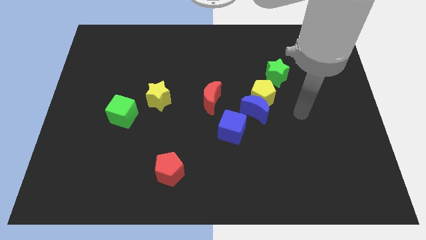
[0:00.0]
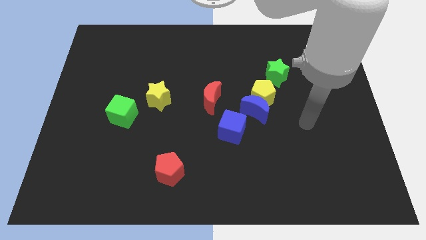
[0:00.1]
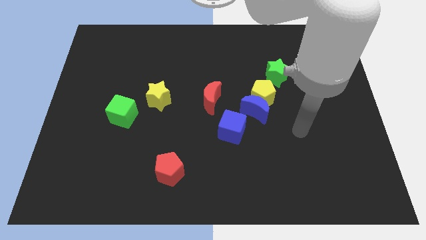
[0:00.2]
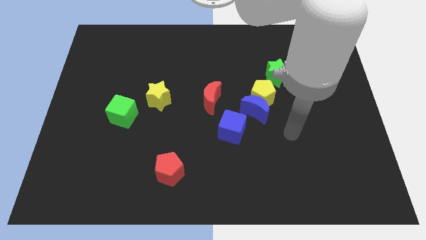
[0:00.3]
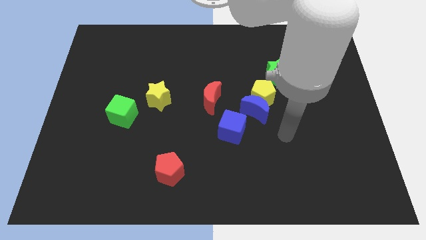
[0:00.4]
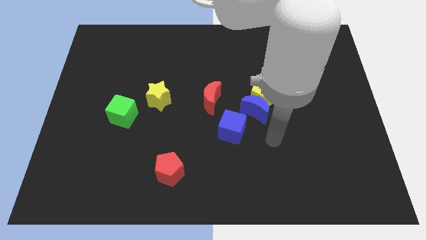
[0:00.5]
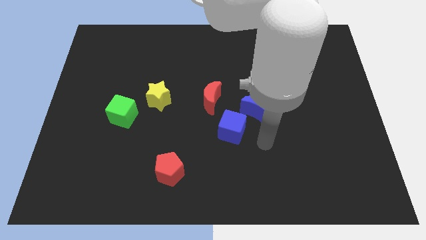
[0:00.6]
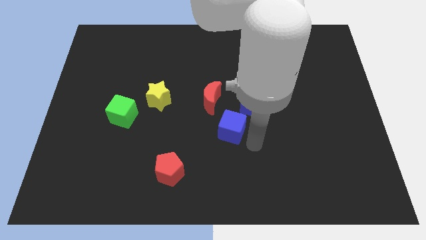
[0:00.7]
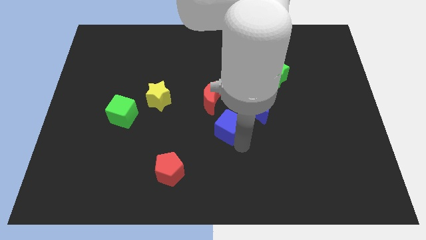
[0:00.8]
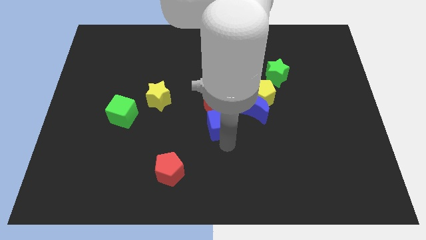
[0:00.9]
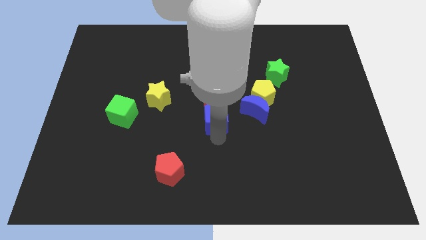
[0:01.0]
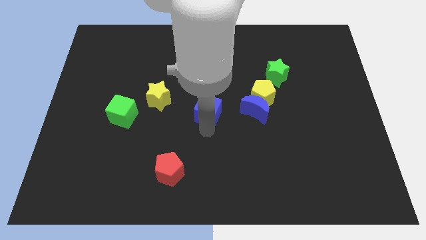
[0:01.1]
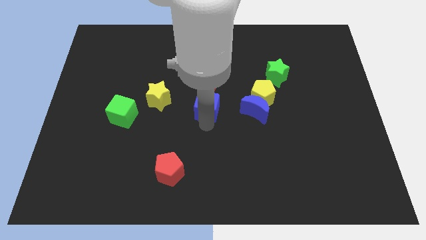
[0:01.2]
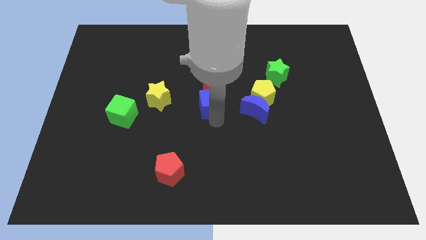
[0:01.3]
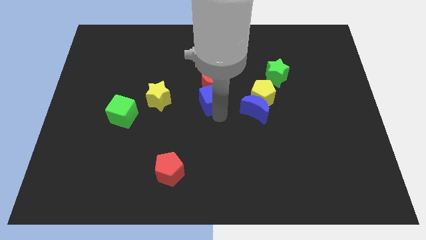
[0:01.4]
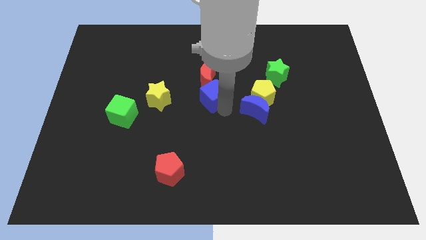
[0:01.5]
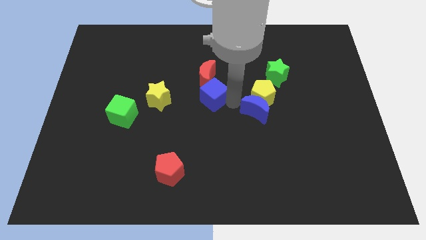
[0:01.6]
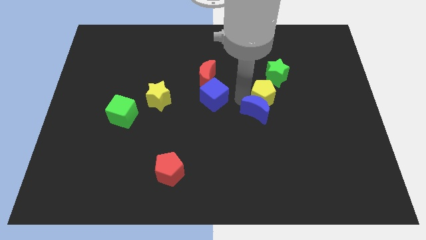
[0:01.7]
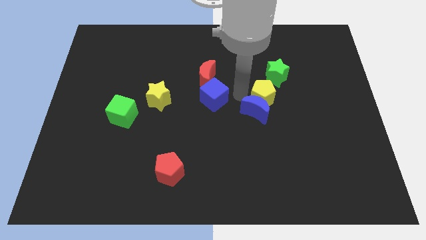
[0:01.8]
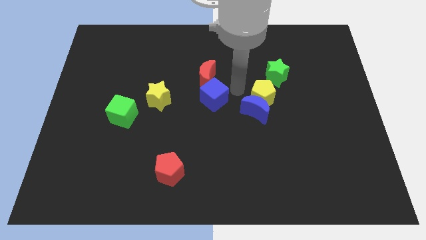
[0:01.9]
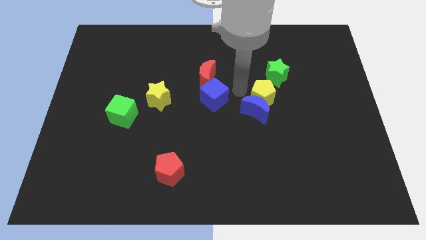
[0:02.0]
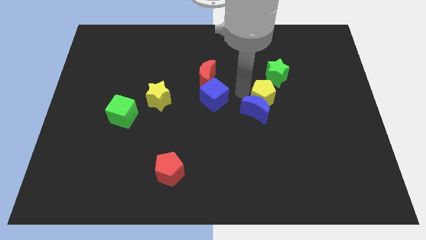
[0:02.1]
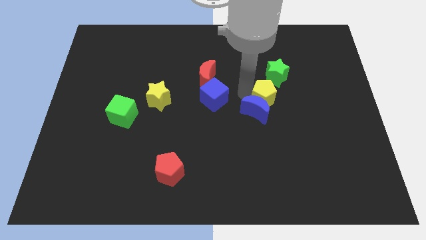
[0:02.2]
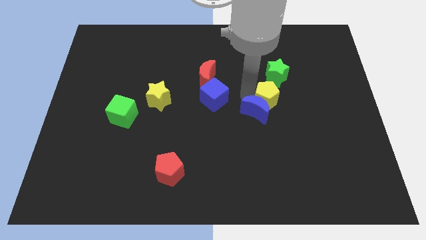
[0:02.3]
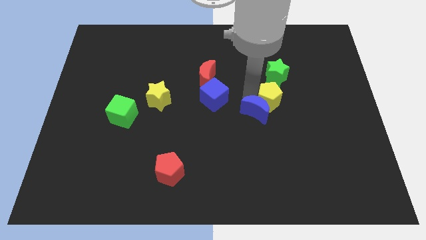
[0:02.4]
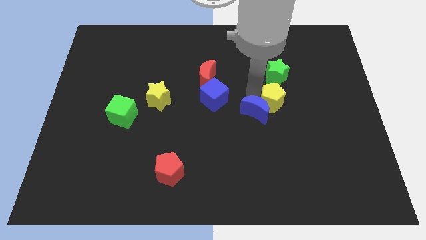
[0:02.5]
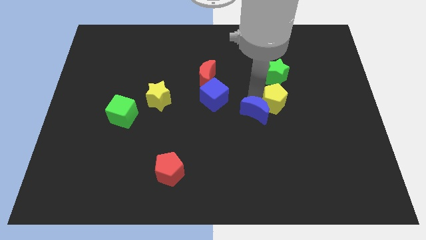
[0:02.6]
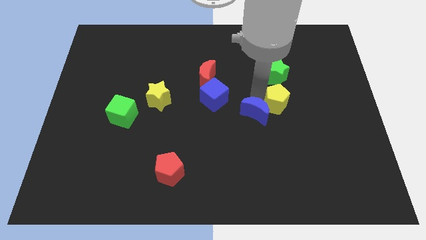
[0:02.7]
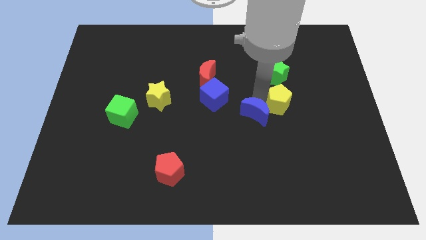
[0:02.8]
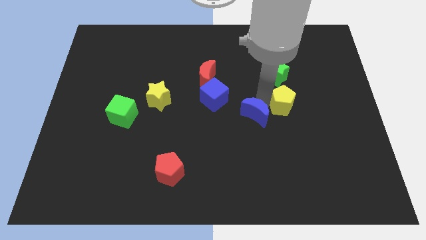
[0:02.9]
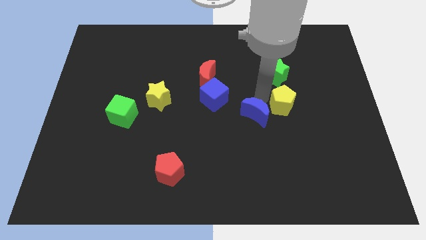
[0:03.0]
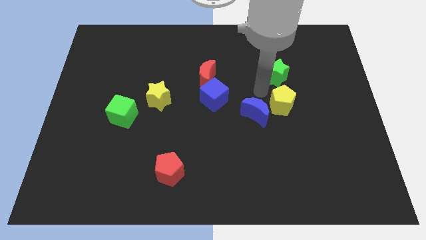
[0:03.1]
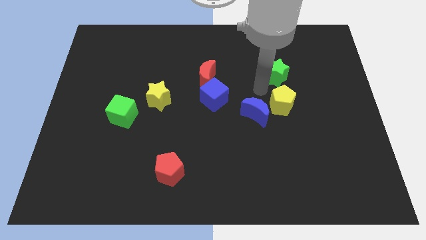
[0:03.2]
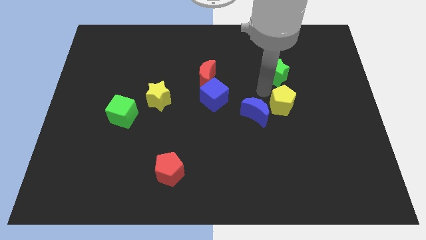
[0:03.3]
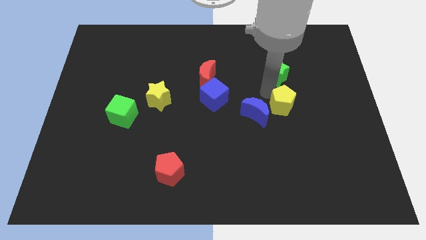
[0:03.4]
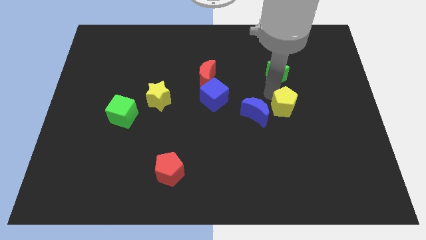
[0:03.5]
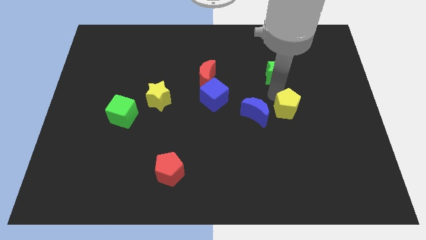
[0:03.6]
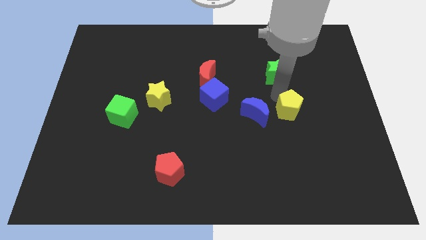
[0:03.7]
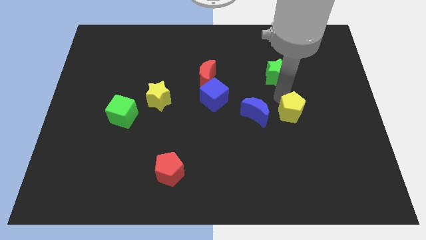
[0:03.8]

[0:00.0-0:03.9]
slightly push the yellow pentagon downwards and right diagonally

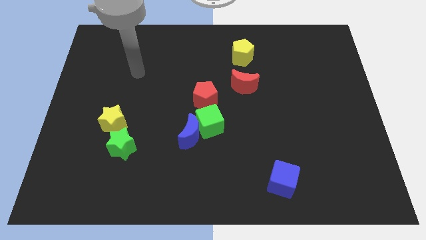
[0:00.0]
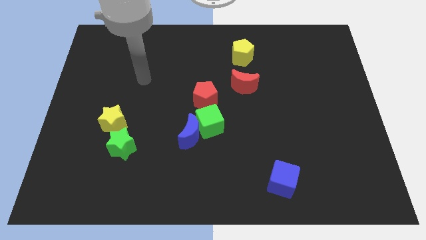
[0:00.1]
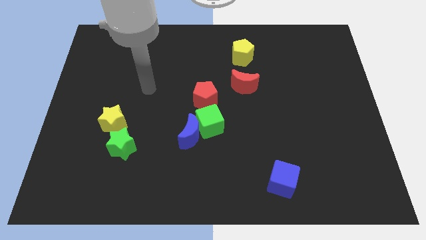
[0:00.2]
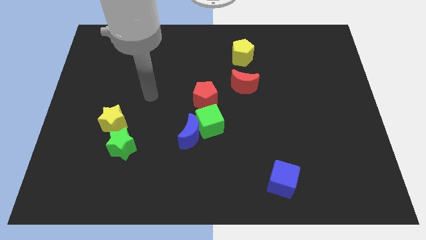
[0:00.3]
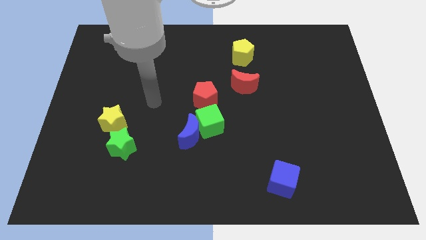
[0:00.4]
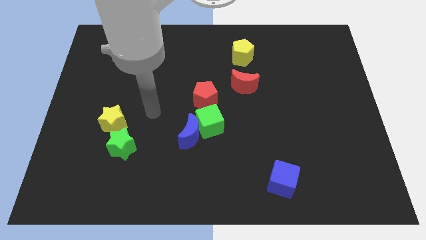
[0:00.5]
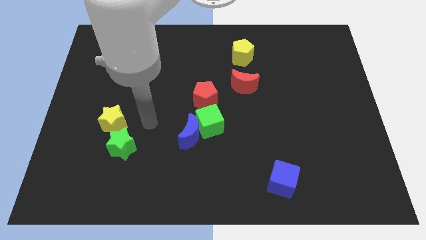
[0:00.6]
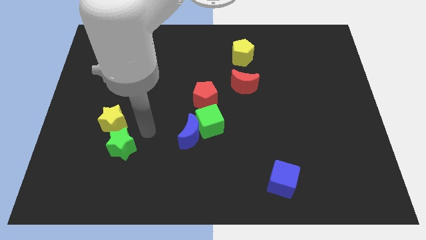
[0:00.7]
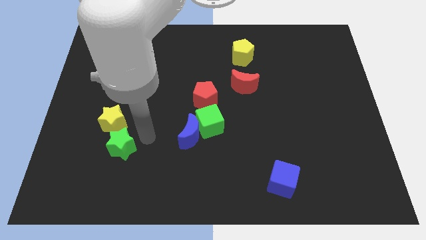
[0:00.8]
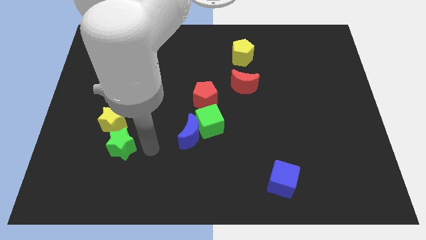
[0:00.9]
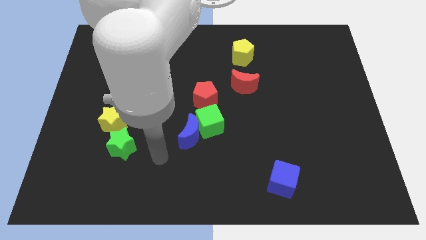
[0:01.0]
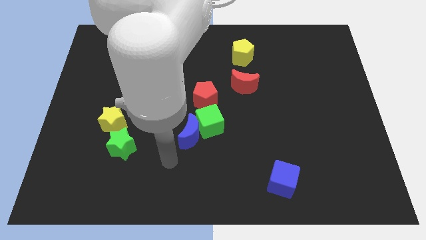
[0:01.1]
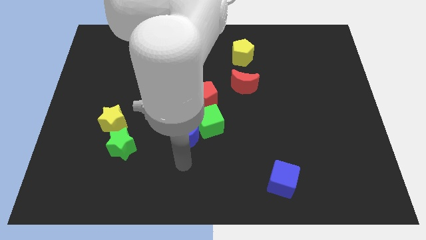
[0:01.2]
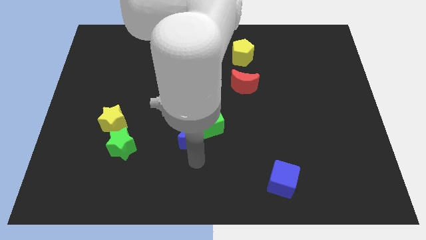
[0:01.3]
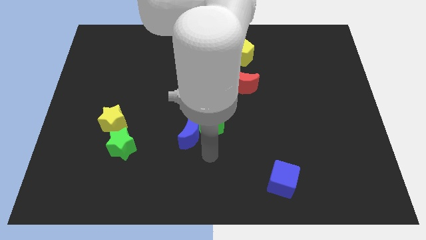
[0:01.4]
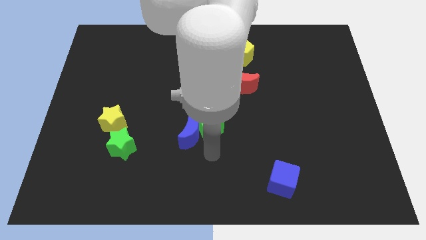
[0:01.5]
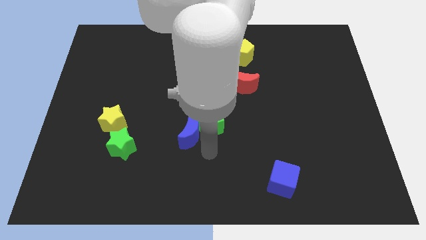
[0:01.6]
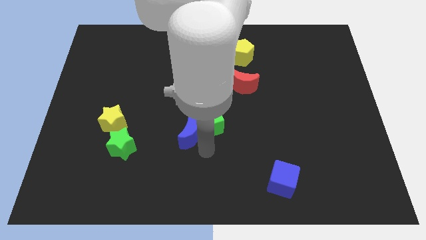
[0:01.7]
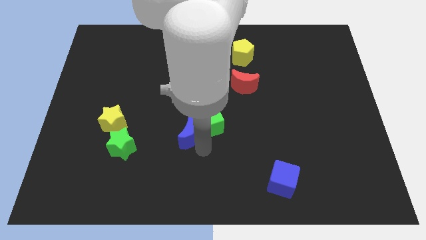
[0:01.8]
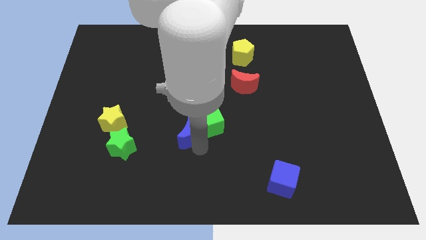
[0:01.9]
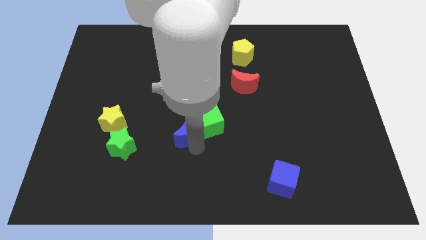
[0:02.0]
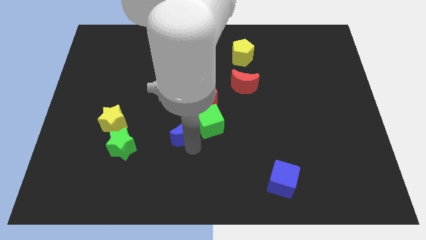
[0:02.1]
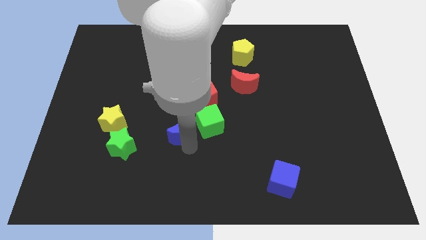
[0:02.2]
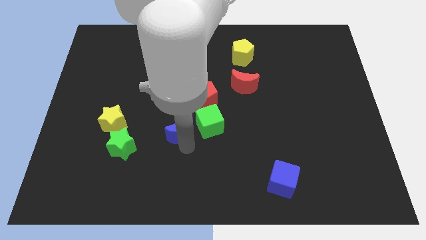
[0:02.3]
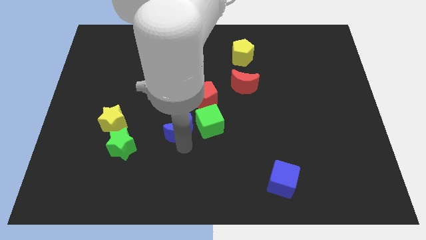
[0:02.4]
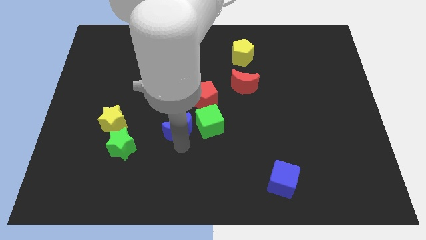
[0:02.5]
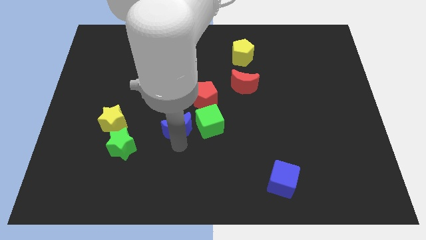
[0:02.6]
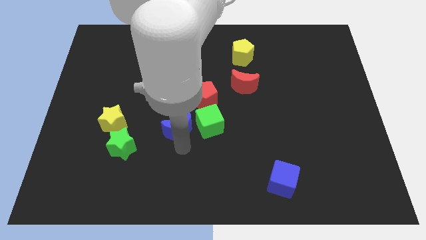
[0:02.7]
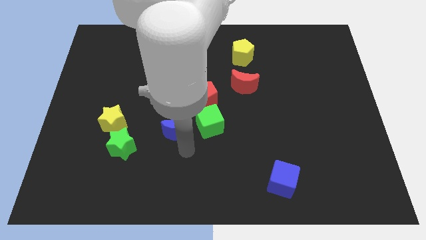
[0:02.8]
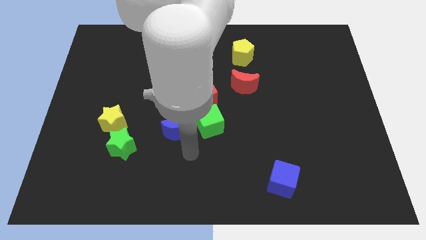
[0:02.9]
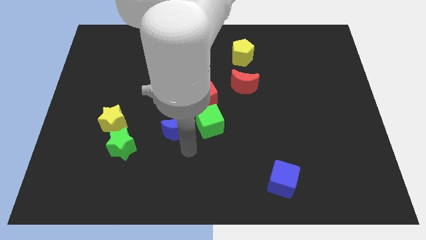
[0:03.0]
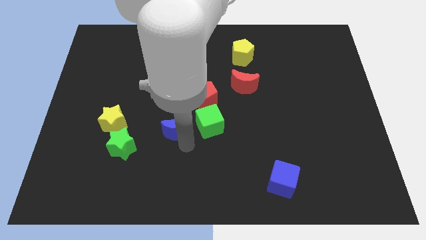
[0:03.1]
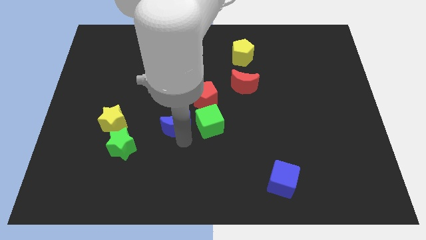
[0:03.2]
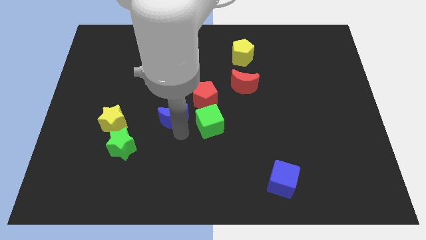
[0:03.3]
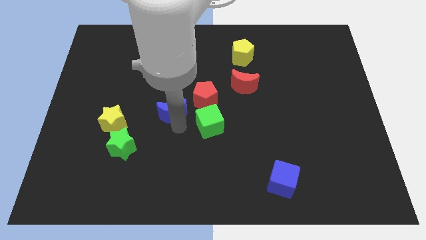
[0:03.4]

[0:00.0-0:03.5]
push the blue moon up and to the left a little

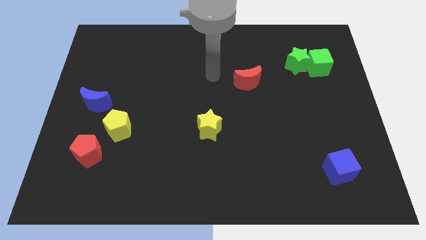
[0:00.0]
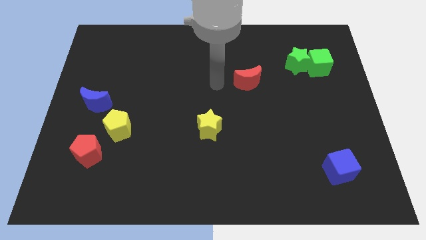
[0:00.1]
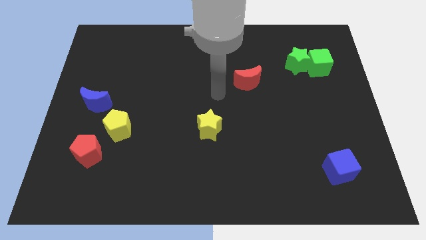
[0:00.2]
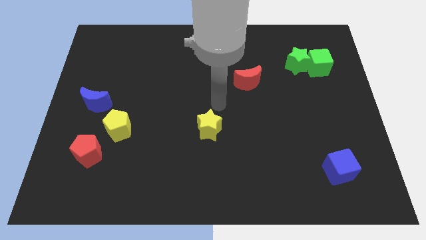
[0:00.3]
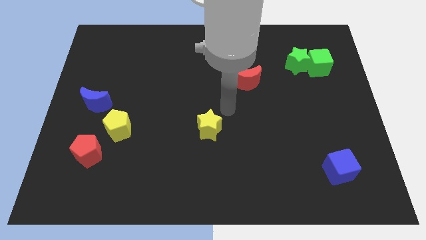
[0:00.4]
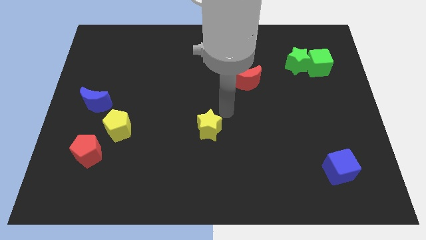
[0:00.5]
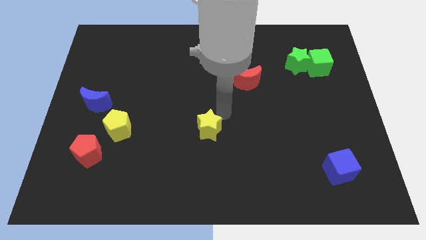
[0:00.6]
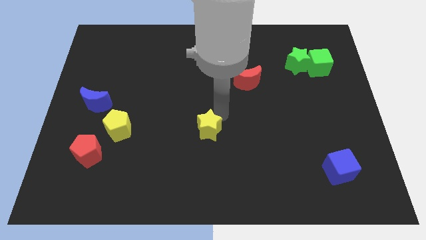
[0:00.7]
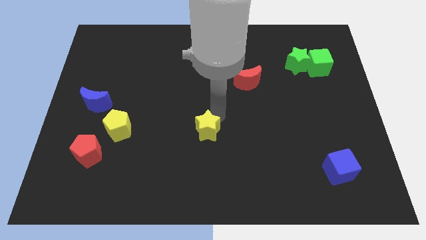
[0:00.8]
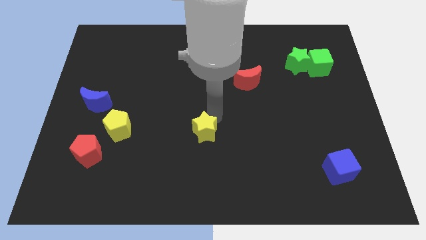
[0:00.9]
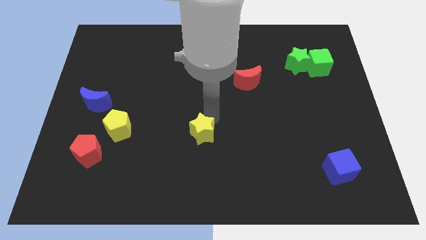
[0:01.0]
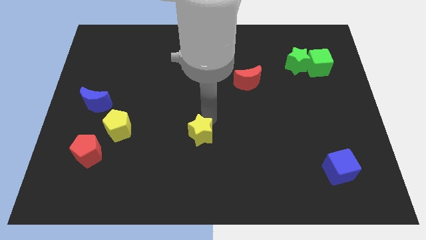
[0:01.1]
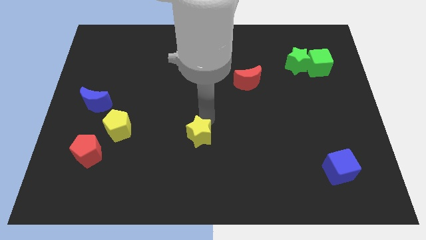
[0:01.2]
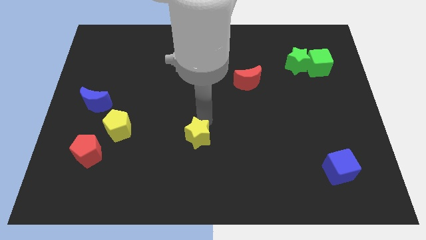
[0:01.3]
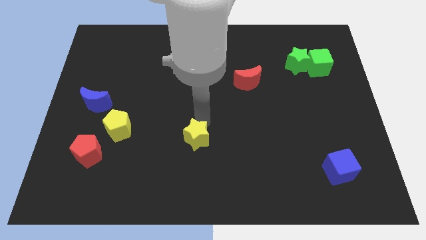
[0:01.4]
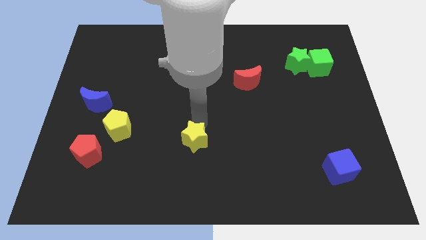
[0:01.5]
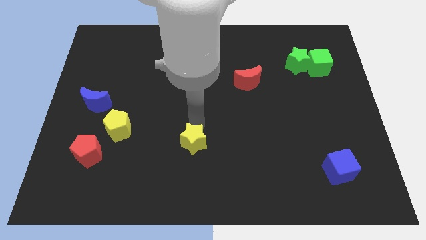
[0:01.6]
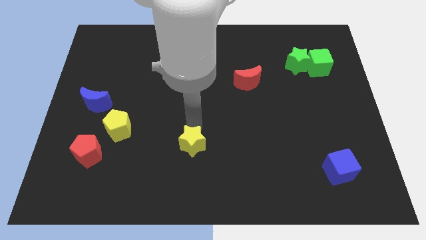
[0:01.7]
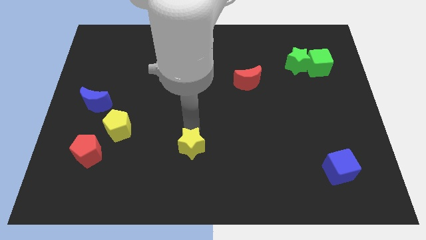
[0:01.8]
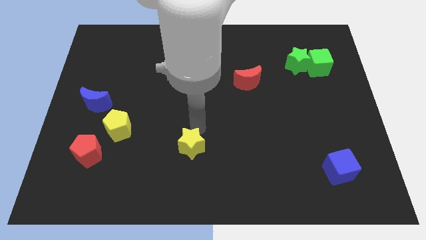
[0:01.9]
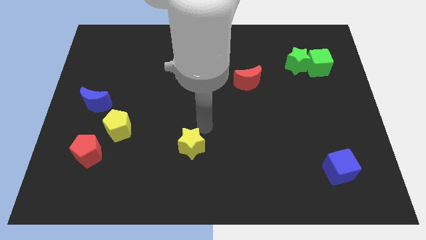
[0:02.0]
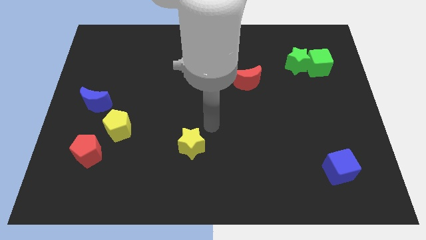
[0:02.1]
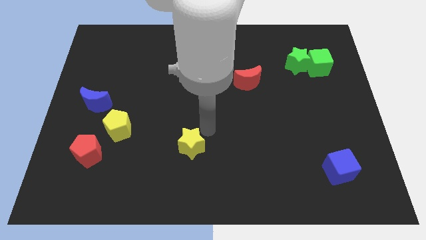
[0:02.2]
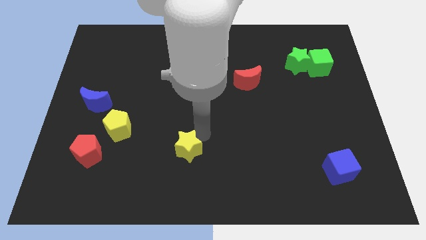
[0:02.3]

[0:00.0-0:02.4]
move the yellow star down and left diagonally a bit
